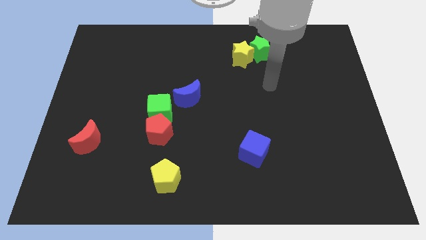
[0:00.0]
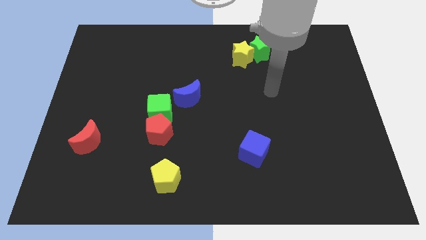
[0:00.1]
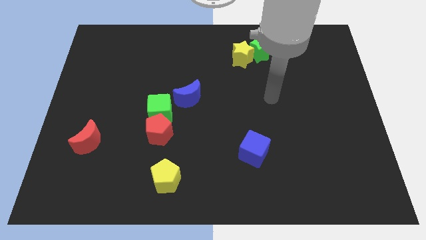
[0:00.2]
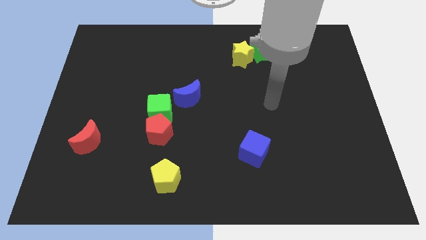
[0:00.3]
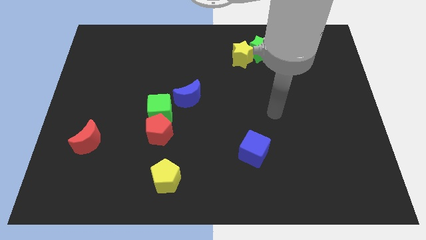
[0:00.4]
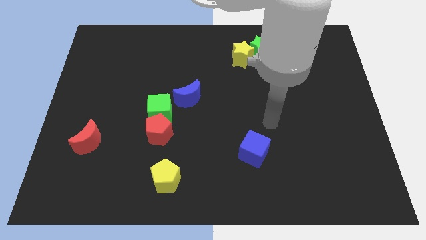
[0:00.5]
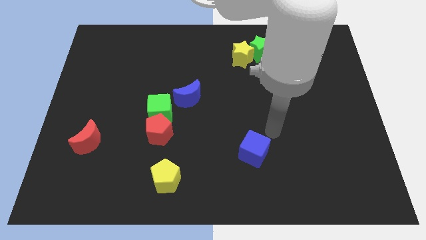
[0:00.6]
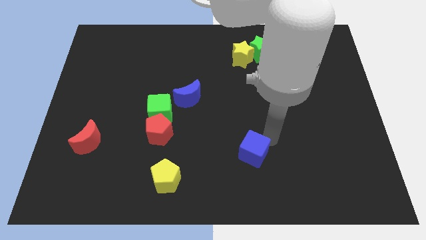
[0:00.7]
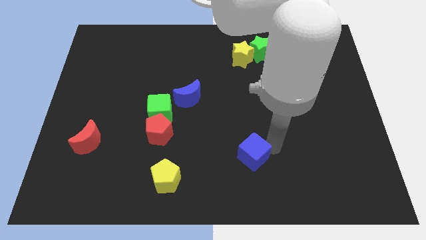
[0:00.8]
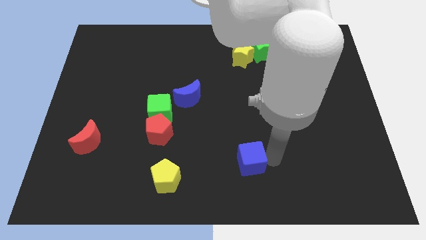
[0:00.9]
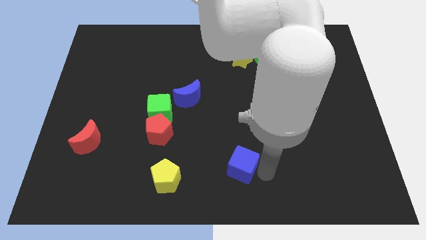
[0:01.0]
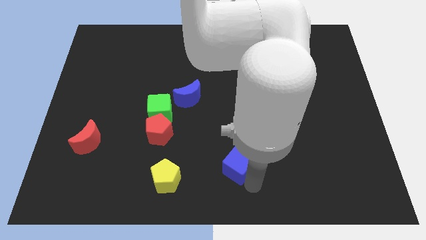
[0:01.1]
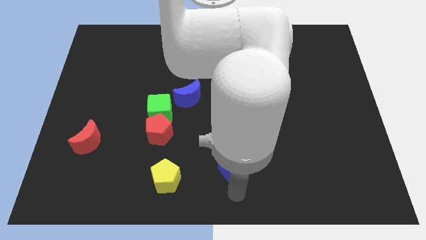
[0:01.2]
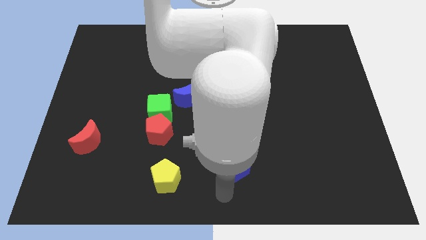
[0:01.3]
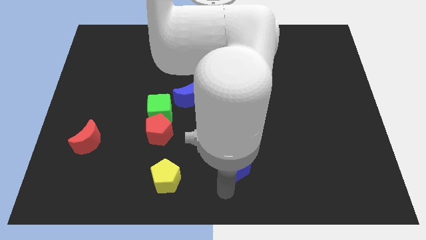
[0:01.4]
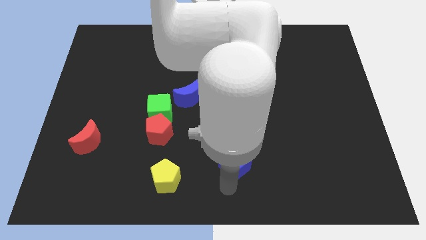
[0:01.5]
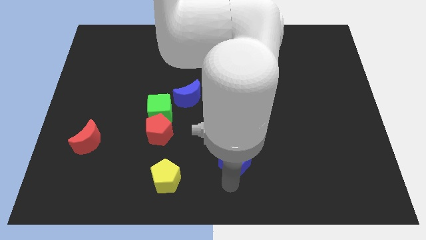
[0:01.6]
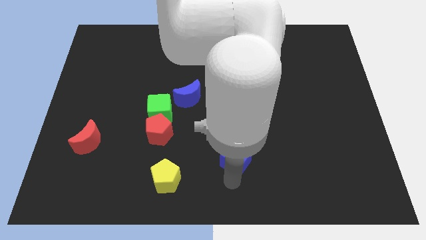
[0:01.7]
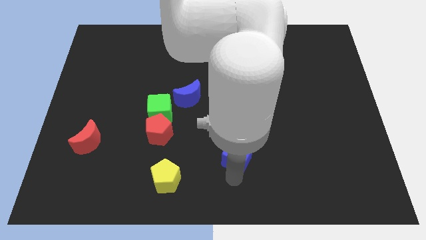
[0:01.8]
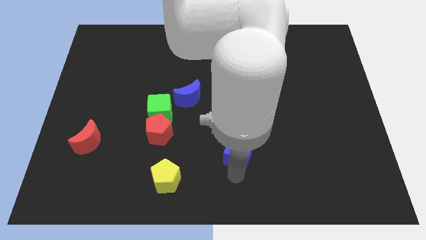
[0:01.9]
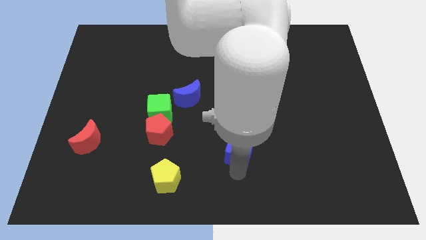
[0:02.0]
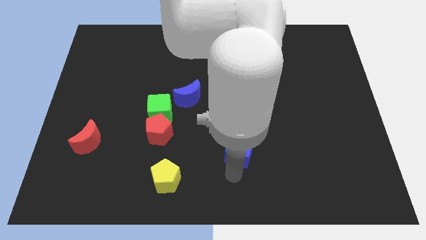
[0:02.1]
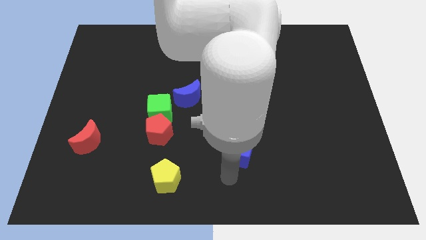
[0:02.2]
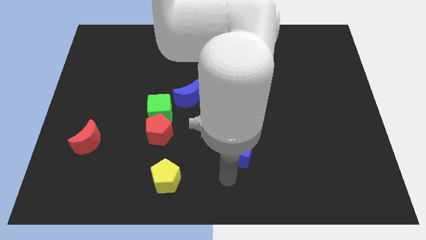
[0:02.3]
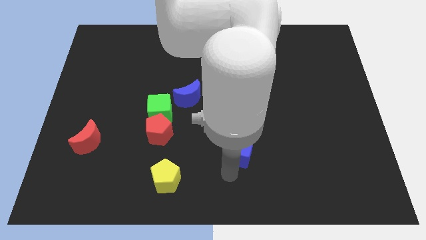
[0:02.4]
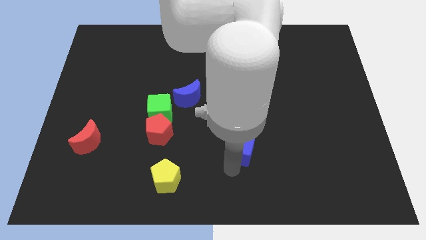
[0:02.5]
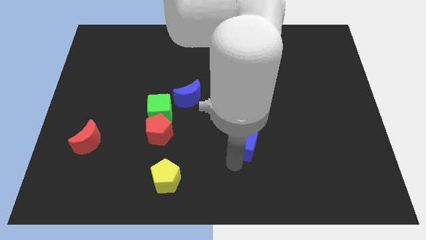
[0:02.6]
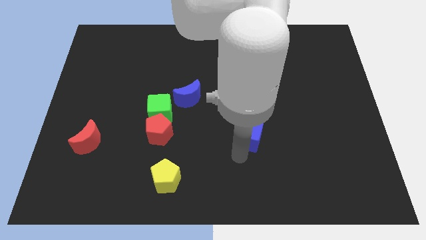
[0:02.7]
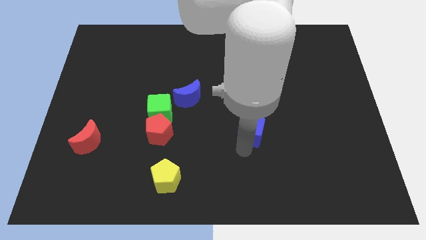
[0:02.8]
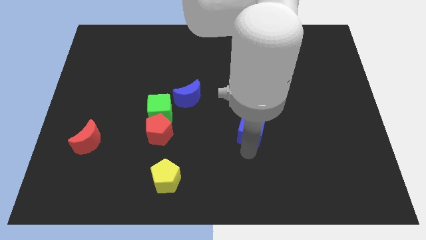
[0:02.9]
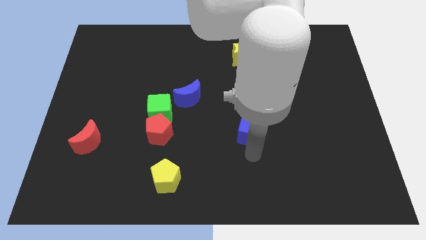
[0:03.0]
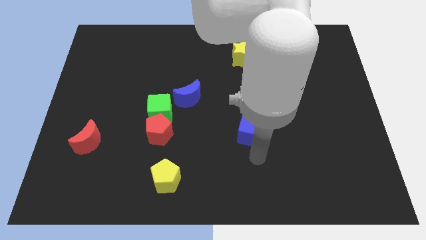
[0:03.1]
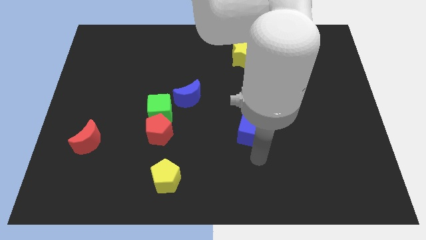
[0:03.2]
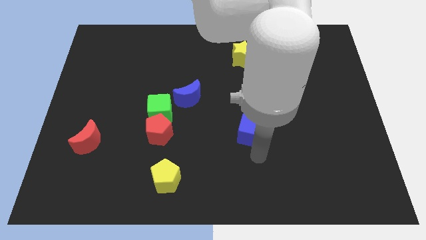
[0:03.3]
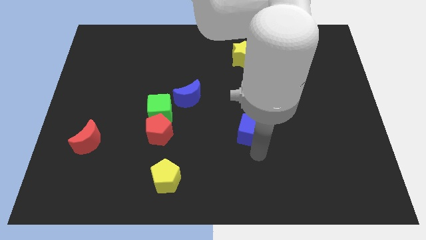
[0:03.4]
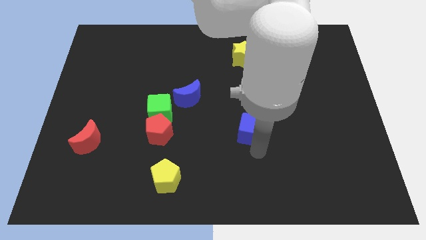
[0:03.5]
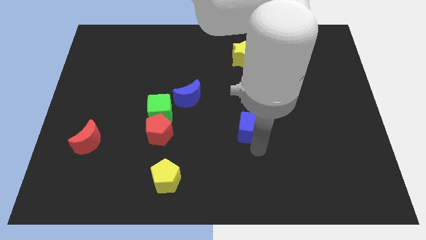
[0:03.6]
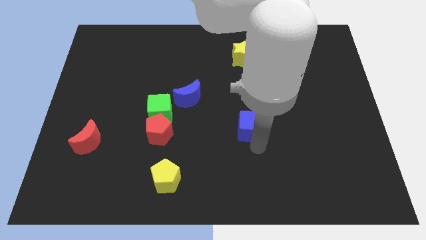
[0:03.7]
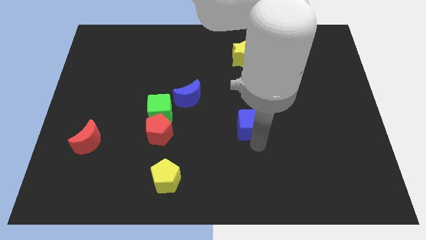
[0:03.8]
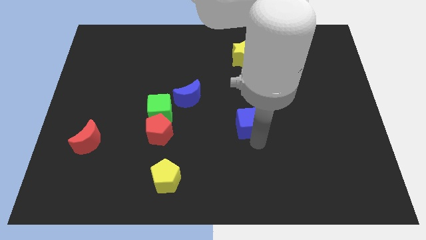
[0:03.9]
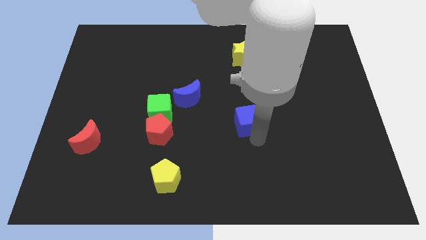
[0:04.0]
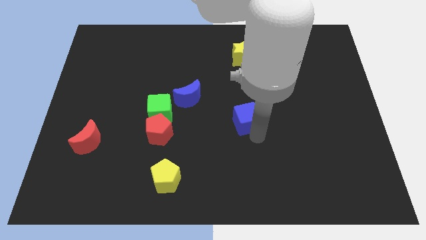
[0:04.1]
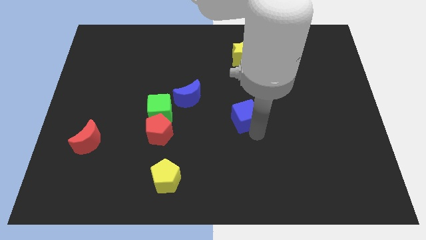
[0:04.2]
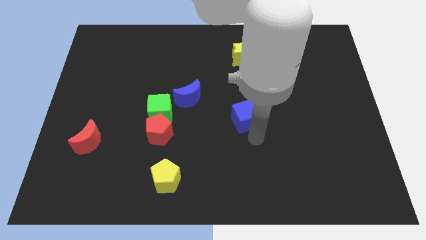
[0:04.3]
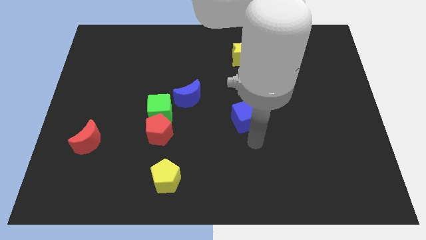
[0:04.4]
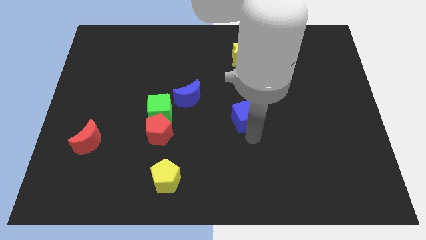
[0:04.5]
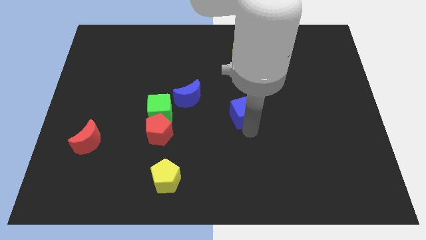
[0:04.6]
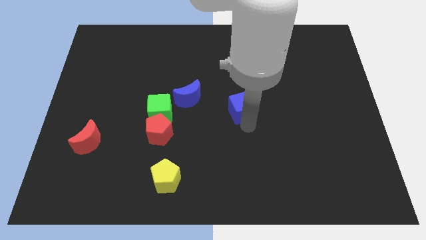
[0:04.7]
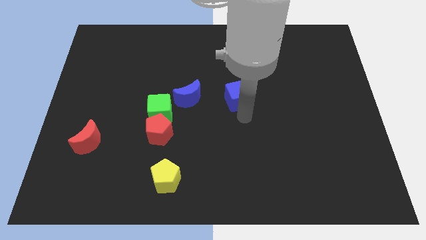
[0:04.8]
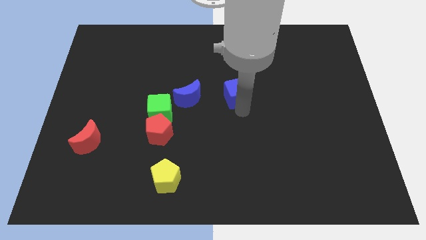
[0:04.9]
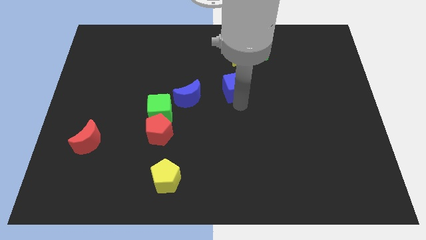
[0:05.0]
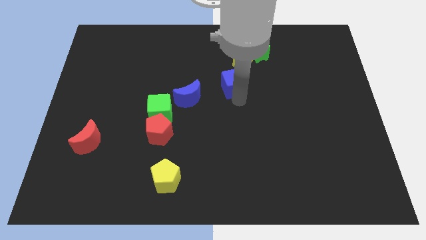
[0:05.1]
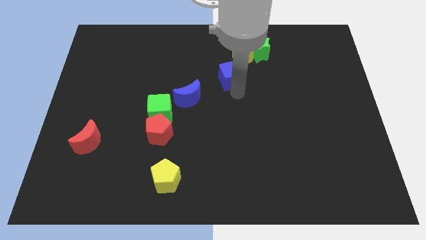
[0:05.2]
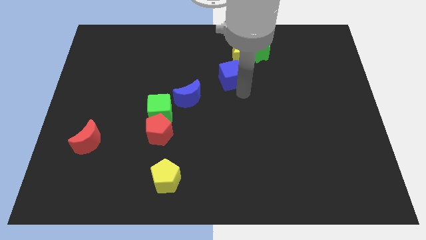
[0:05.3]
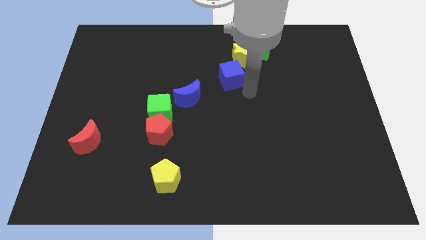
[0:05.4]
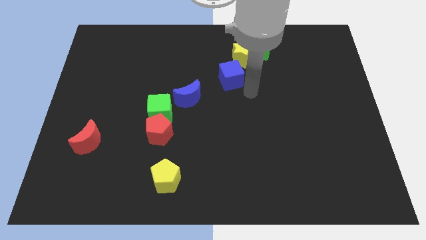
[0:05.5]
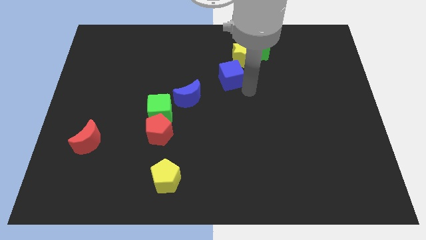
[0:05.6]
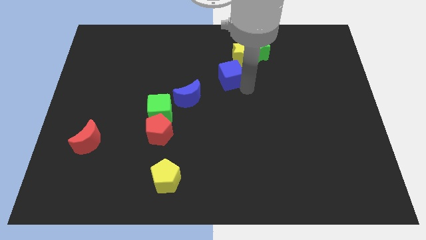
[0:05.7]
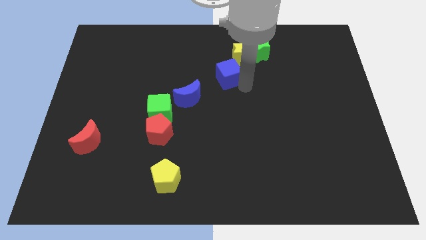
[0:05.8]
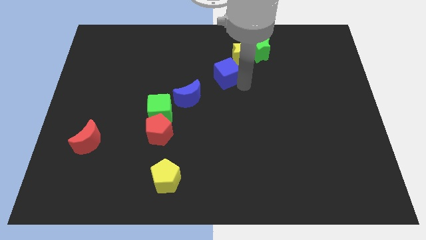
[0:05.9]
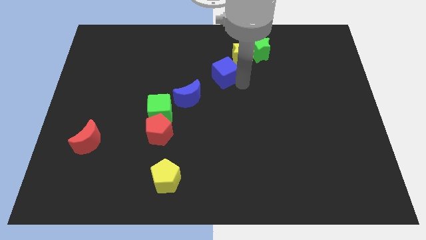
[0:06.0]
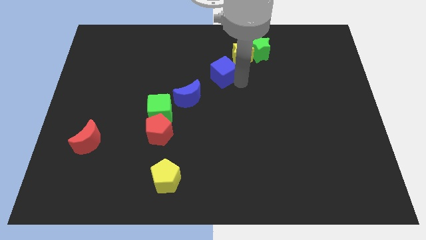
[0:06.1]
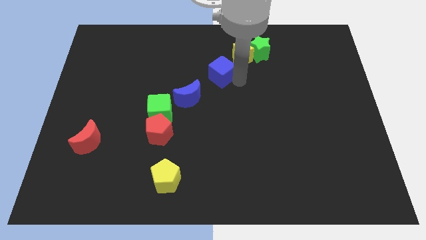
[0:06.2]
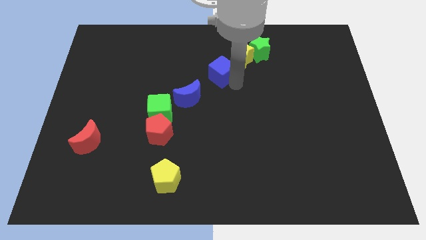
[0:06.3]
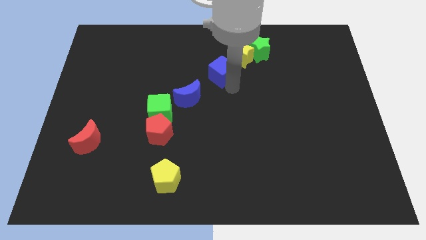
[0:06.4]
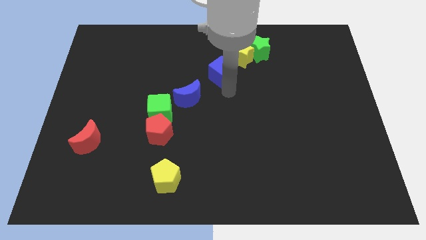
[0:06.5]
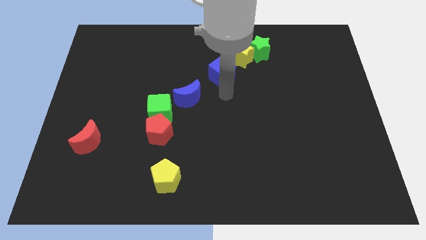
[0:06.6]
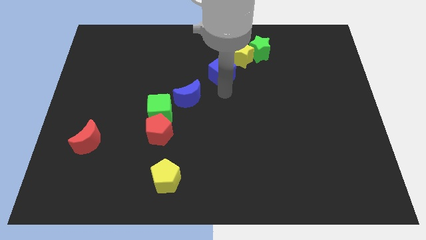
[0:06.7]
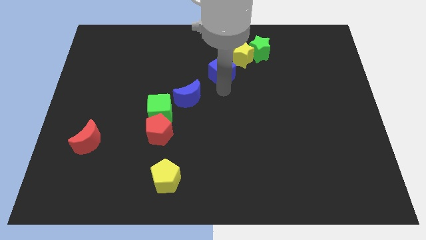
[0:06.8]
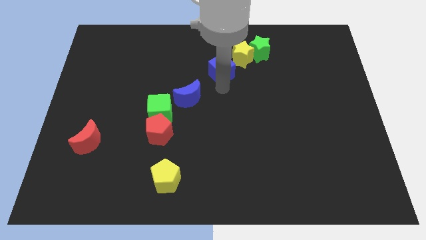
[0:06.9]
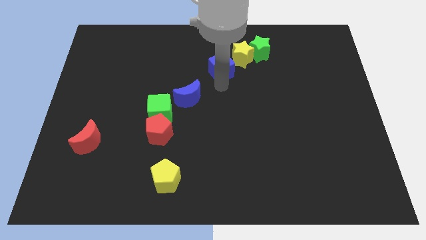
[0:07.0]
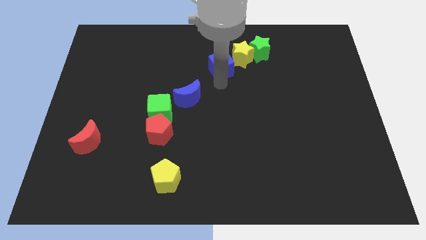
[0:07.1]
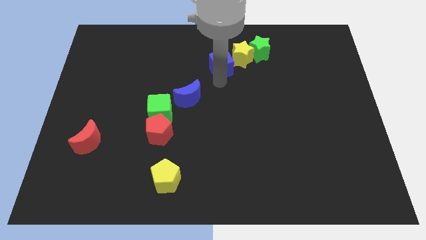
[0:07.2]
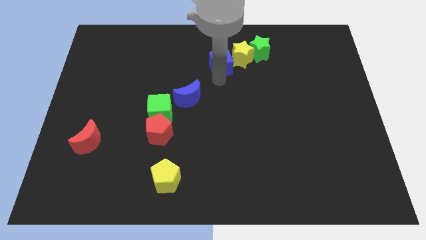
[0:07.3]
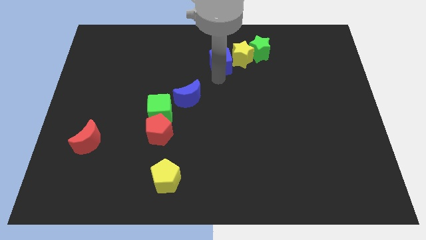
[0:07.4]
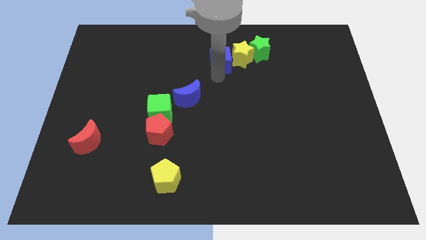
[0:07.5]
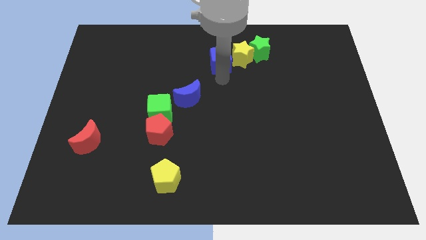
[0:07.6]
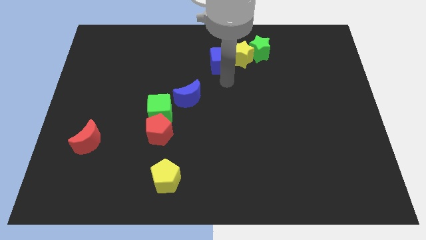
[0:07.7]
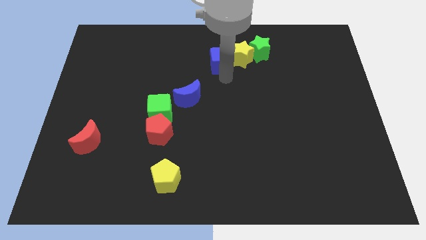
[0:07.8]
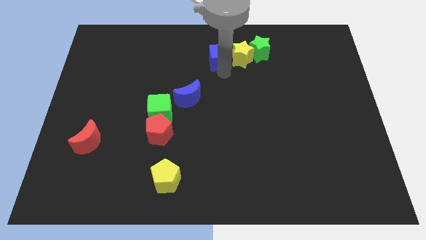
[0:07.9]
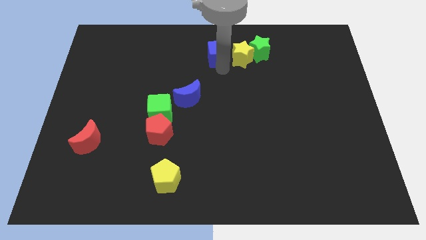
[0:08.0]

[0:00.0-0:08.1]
slide the blue cube to the towards your base

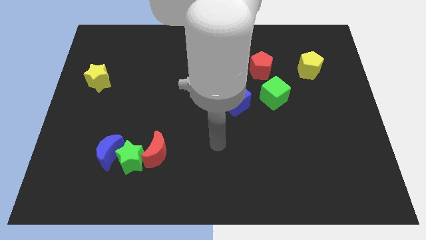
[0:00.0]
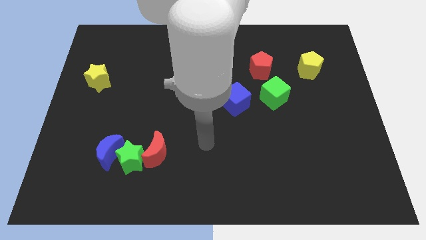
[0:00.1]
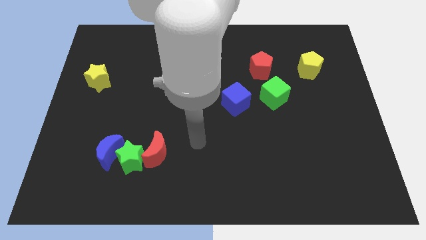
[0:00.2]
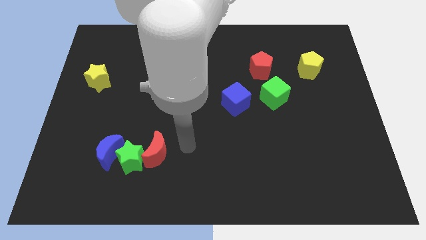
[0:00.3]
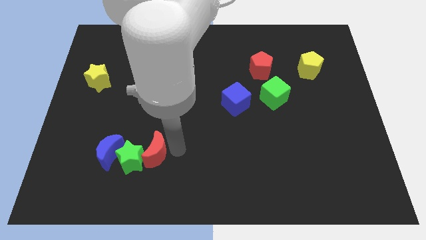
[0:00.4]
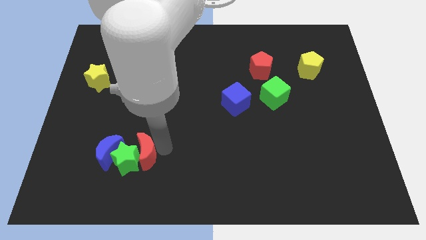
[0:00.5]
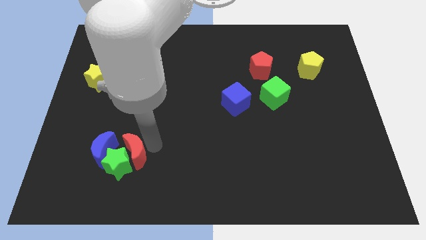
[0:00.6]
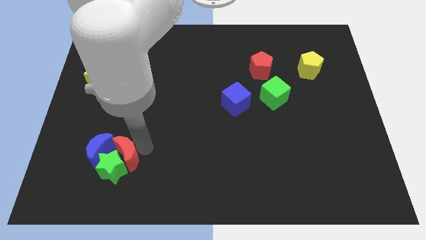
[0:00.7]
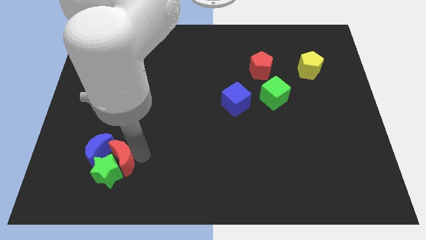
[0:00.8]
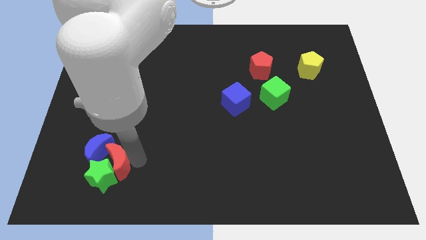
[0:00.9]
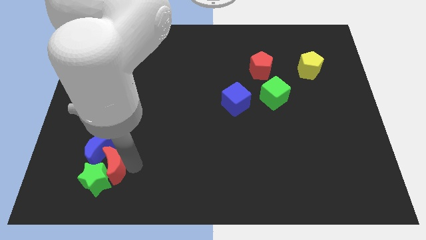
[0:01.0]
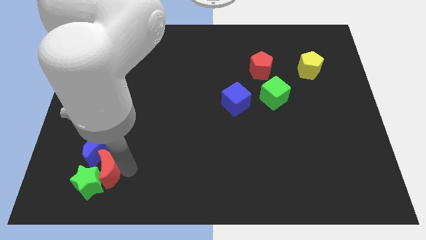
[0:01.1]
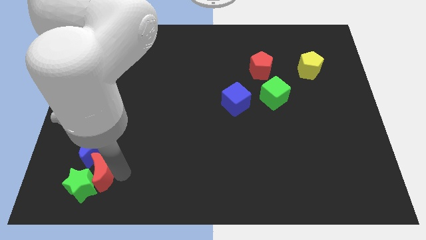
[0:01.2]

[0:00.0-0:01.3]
push the green star to the lower left corner
